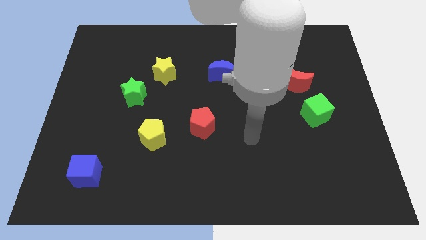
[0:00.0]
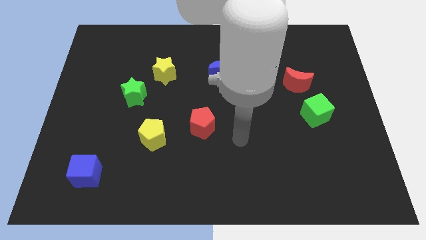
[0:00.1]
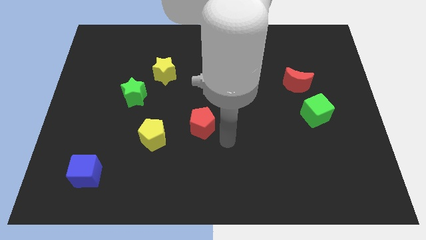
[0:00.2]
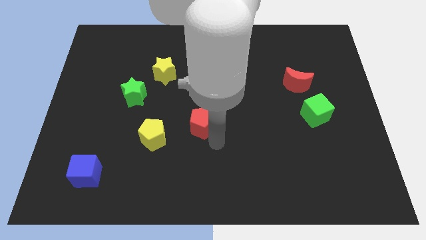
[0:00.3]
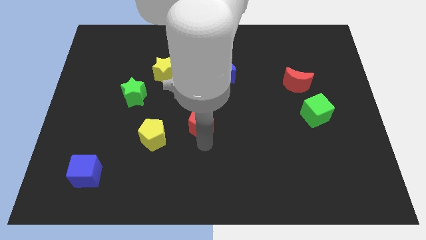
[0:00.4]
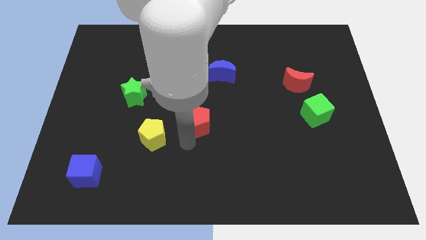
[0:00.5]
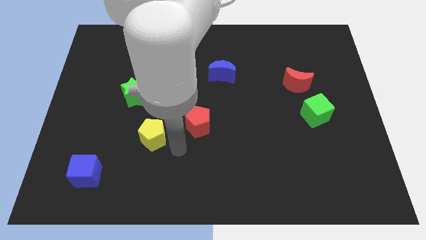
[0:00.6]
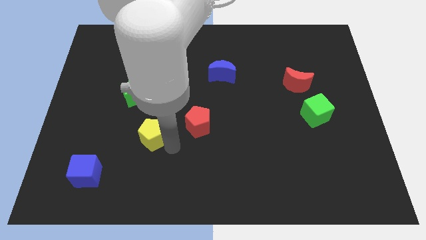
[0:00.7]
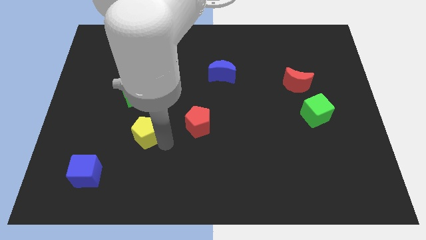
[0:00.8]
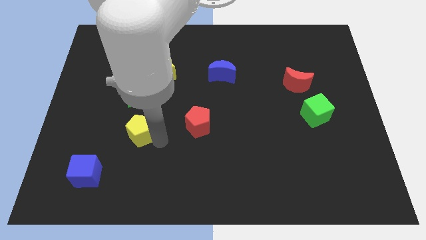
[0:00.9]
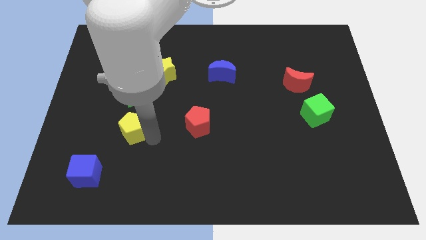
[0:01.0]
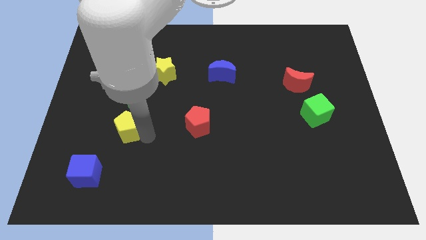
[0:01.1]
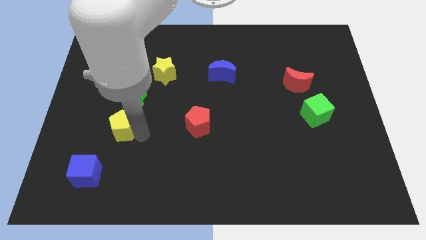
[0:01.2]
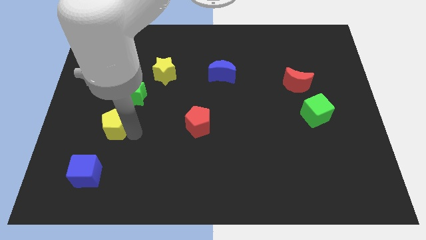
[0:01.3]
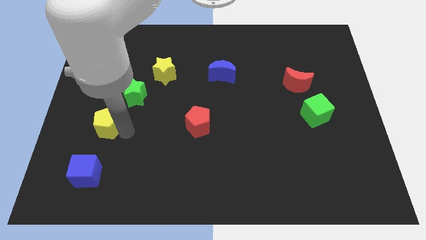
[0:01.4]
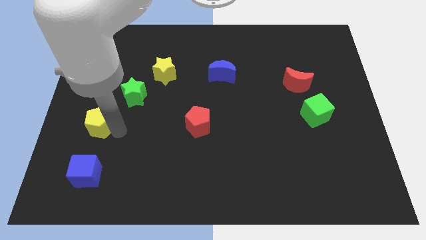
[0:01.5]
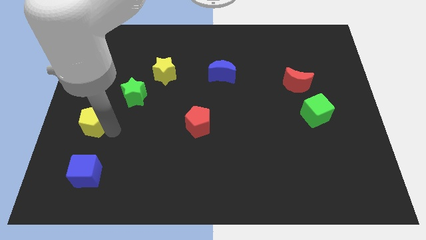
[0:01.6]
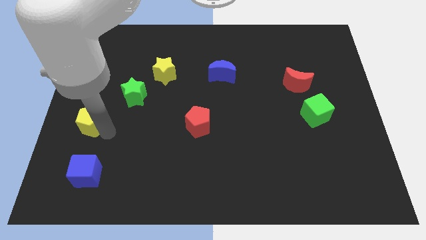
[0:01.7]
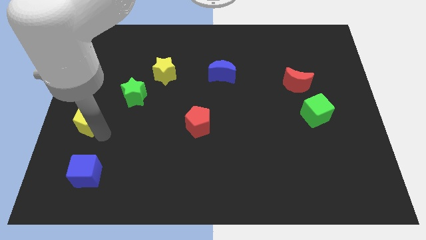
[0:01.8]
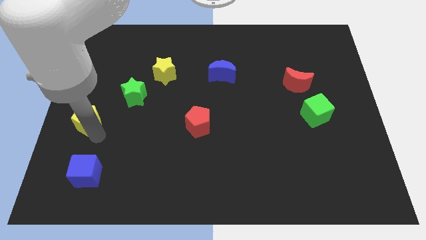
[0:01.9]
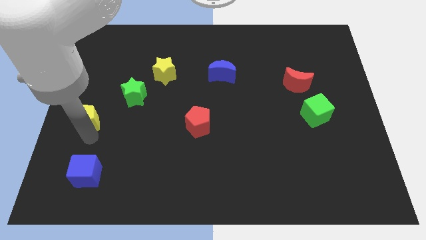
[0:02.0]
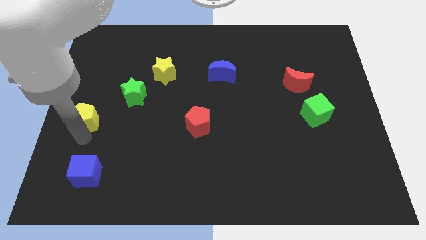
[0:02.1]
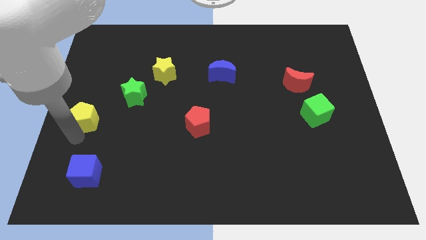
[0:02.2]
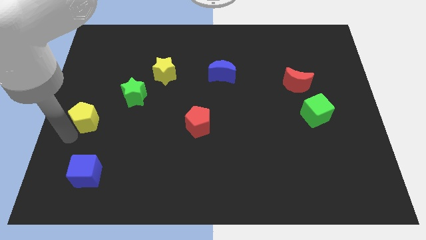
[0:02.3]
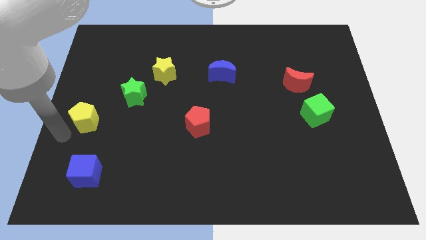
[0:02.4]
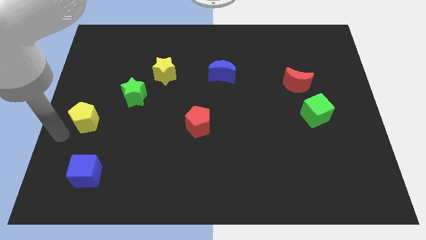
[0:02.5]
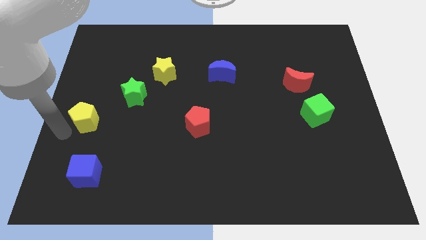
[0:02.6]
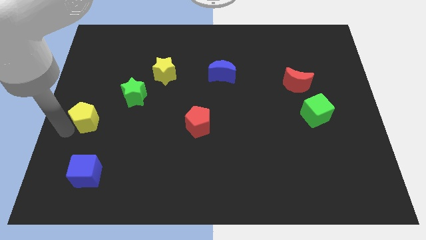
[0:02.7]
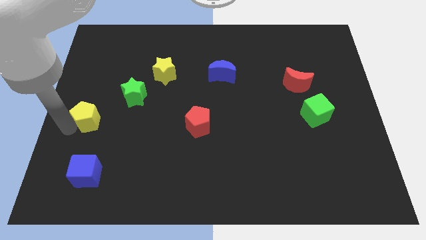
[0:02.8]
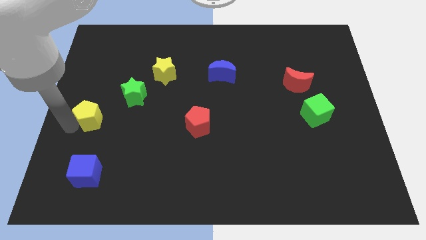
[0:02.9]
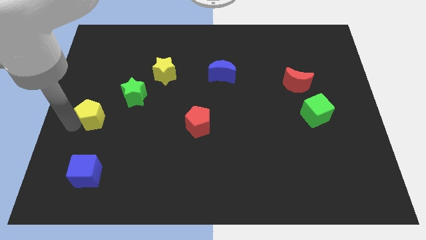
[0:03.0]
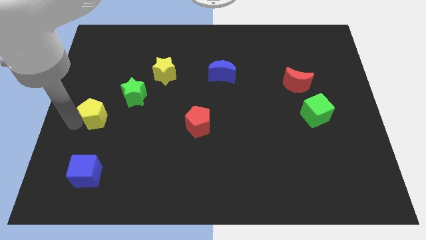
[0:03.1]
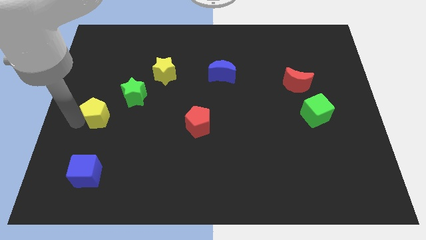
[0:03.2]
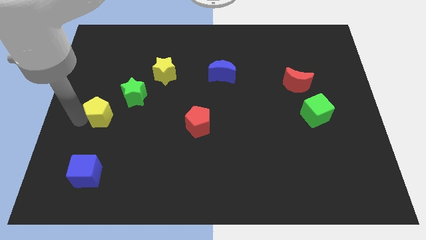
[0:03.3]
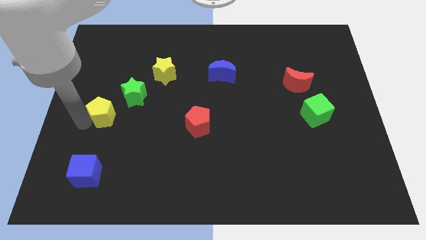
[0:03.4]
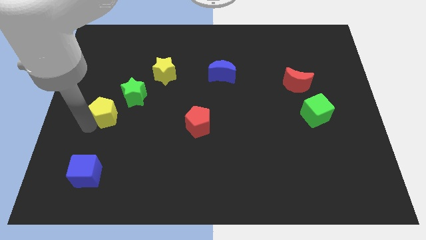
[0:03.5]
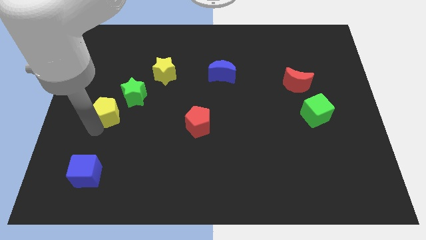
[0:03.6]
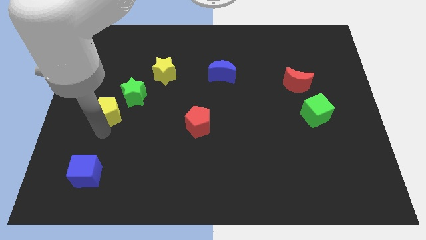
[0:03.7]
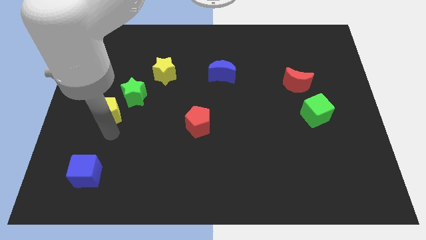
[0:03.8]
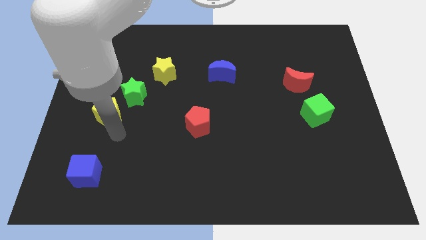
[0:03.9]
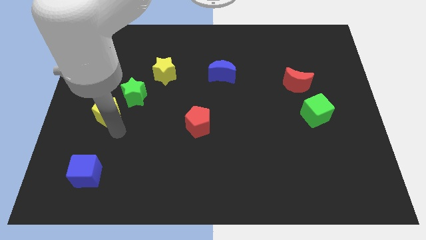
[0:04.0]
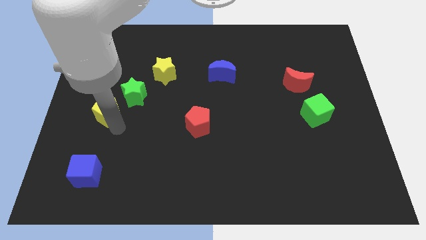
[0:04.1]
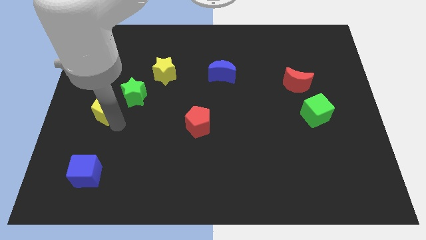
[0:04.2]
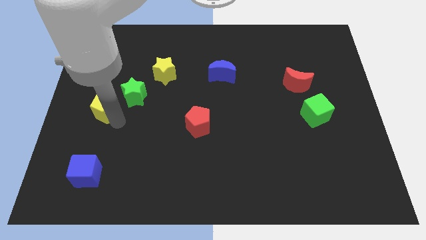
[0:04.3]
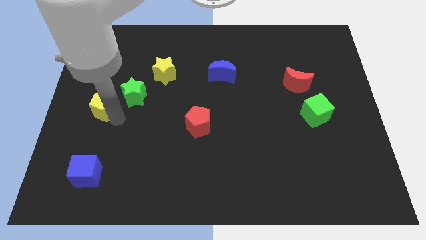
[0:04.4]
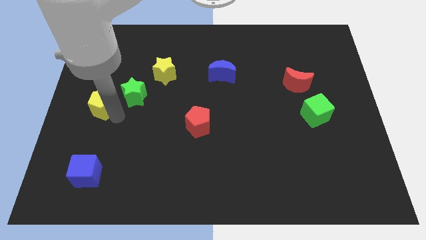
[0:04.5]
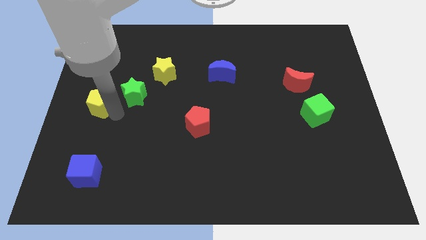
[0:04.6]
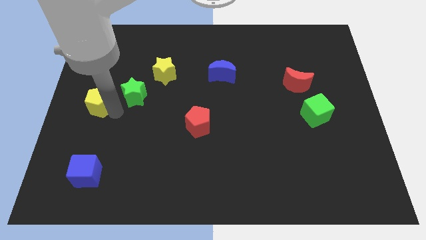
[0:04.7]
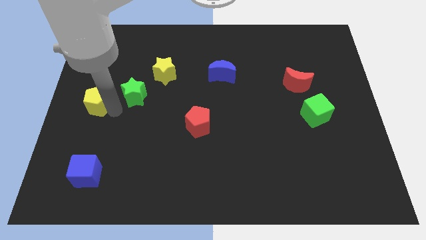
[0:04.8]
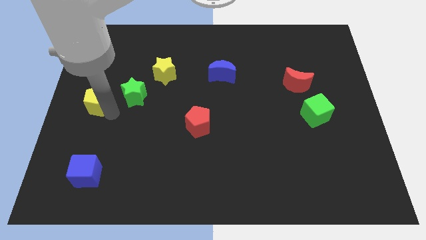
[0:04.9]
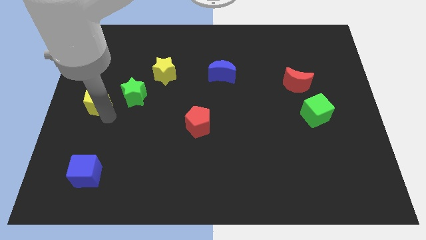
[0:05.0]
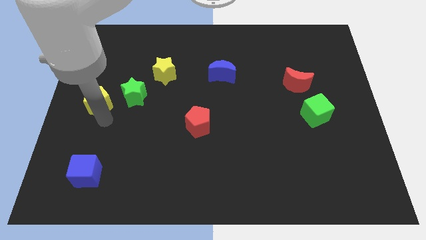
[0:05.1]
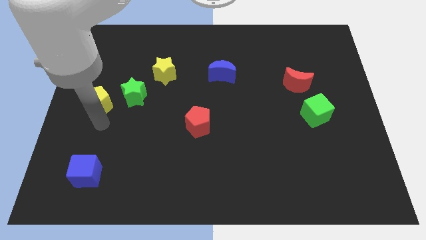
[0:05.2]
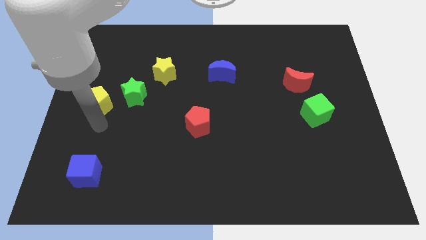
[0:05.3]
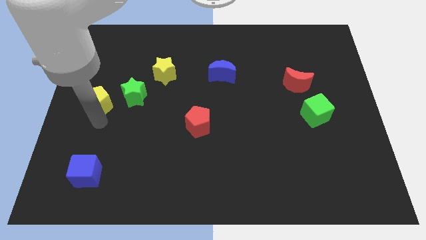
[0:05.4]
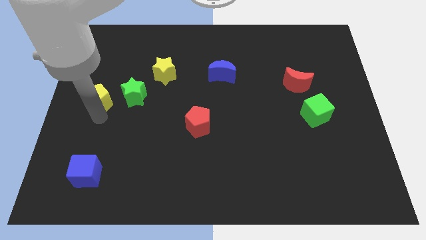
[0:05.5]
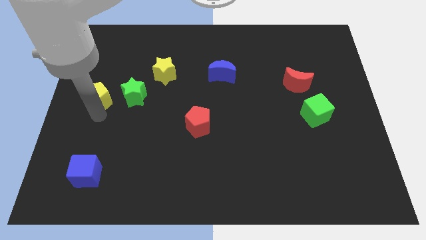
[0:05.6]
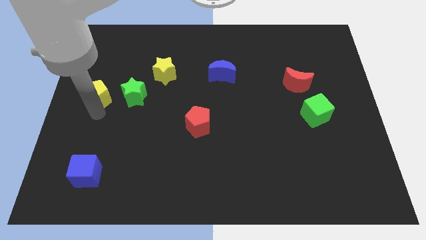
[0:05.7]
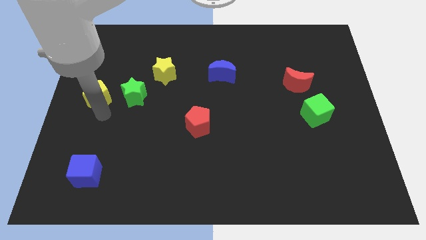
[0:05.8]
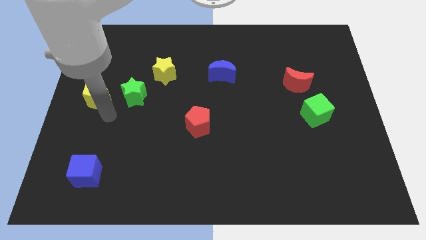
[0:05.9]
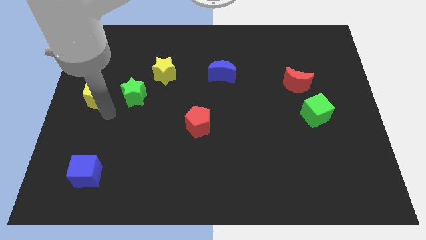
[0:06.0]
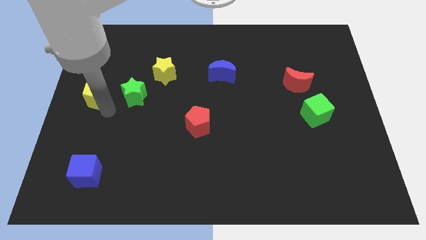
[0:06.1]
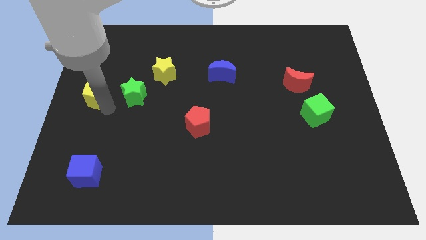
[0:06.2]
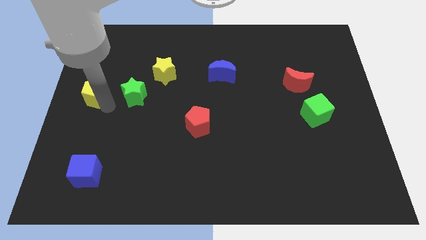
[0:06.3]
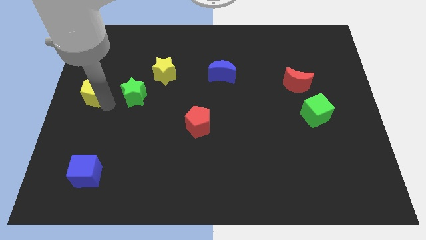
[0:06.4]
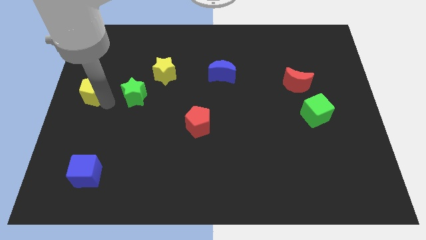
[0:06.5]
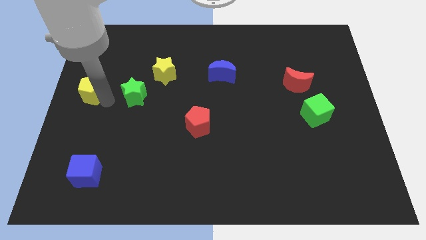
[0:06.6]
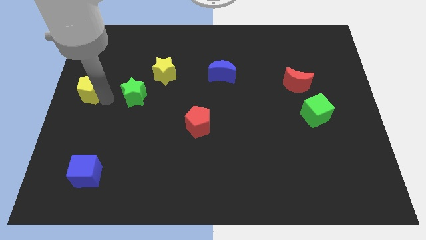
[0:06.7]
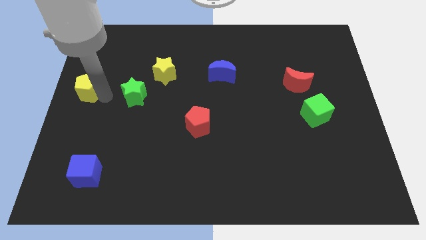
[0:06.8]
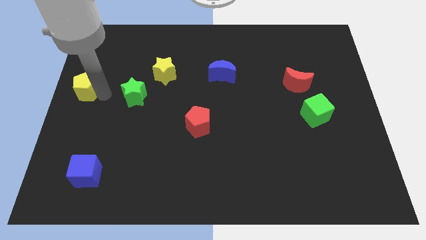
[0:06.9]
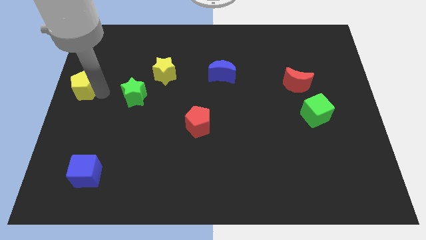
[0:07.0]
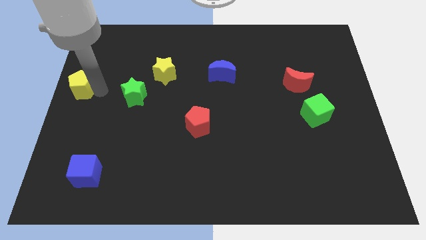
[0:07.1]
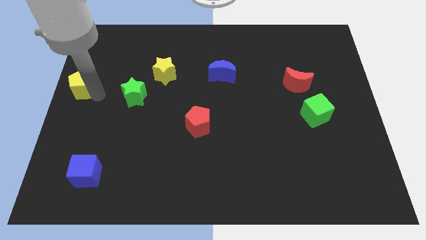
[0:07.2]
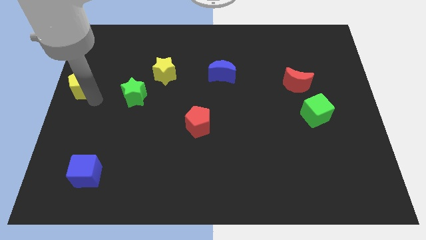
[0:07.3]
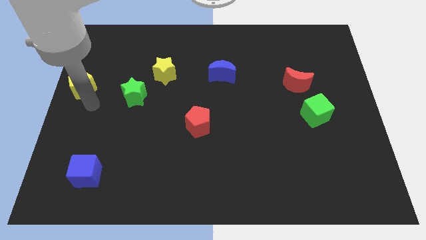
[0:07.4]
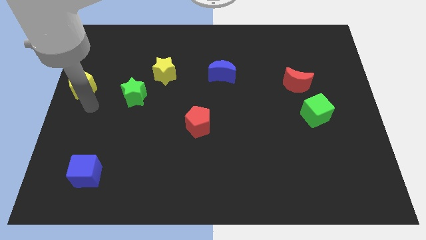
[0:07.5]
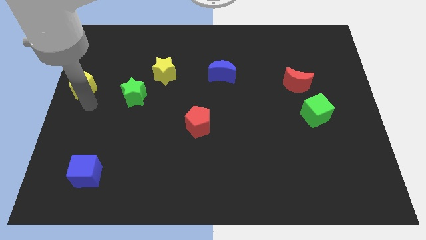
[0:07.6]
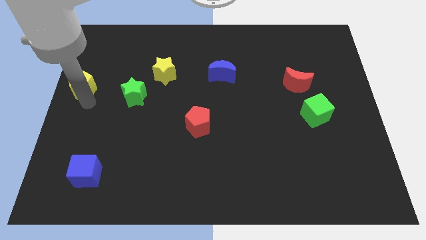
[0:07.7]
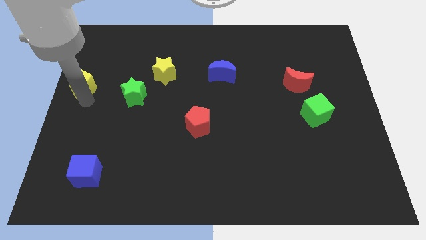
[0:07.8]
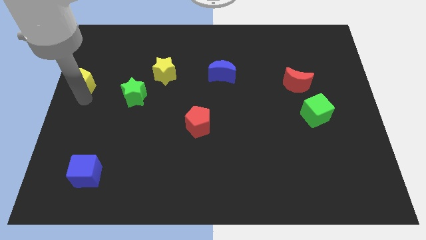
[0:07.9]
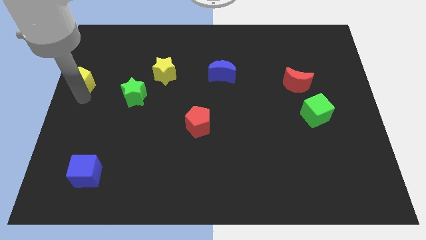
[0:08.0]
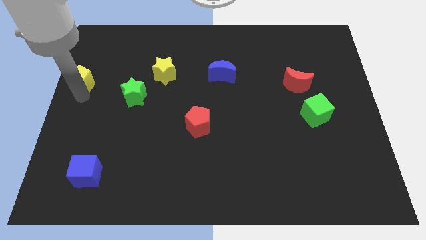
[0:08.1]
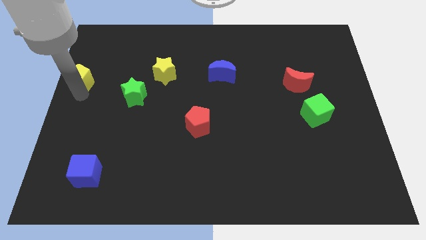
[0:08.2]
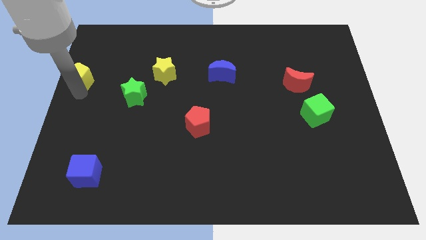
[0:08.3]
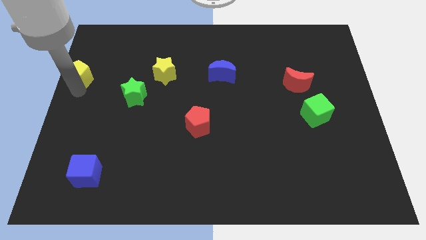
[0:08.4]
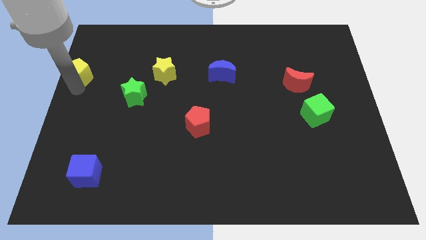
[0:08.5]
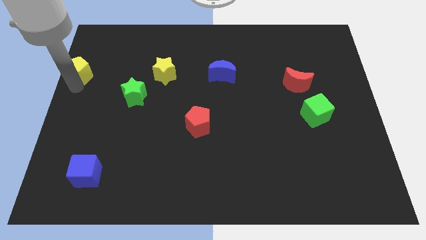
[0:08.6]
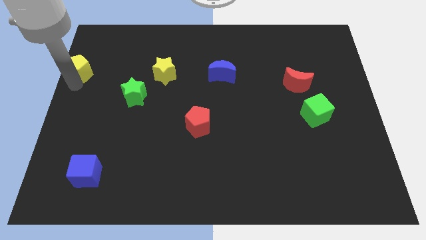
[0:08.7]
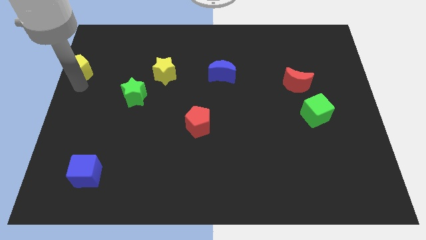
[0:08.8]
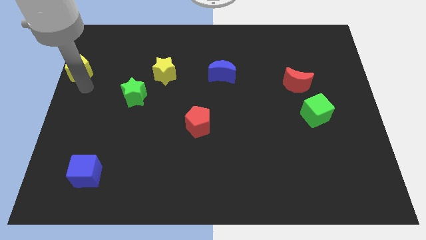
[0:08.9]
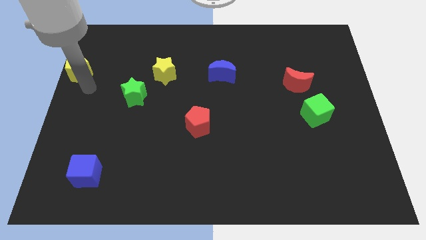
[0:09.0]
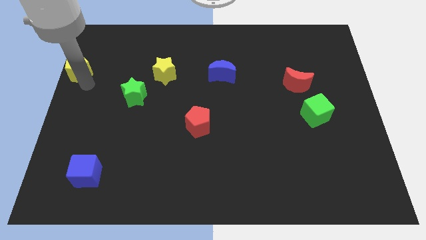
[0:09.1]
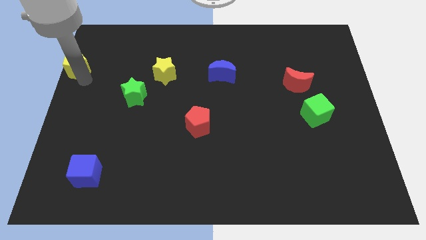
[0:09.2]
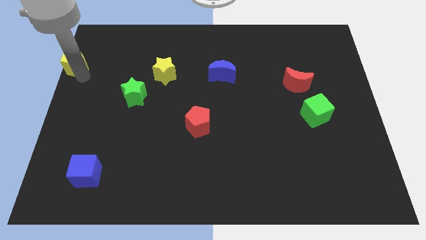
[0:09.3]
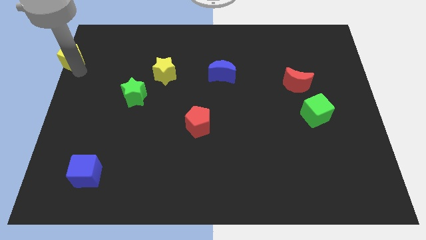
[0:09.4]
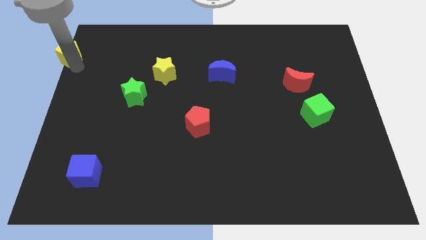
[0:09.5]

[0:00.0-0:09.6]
push the yellow pentagon to the upper left corner
